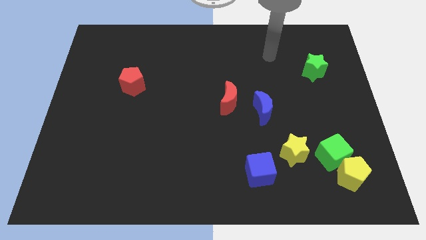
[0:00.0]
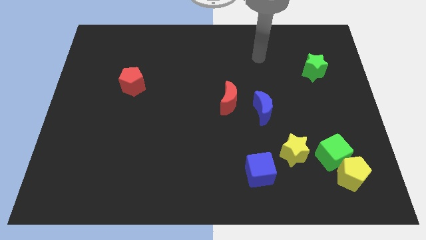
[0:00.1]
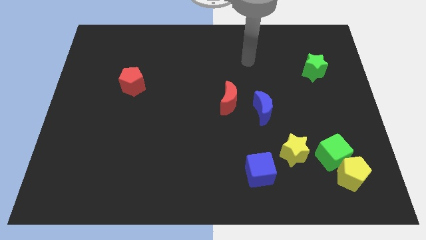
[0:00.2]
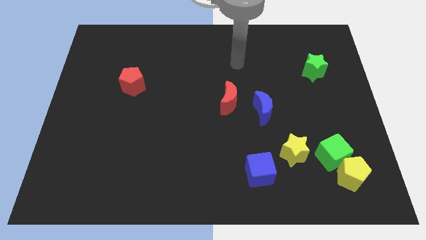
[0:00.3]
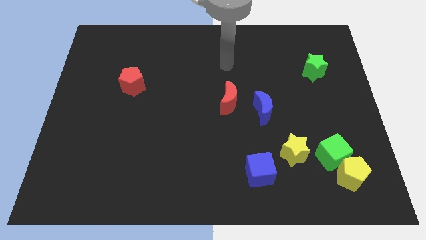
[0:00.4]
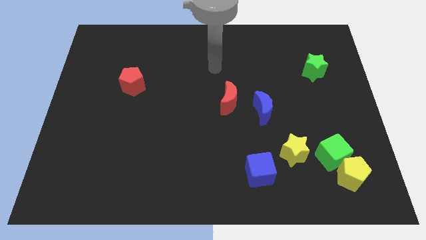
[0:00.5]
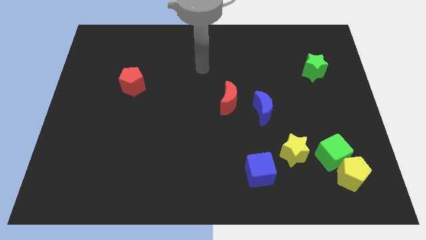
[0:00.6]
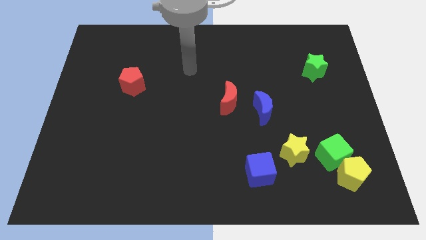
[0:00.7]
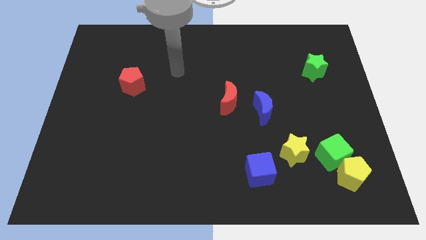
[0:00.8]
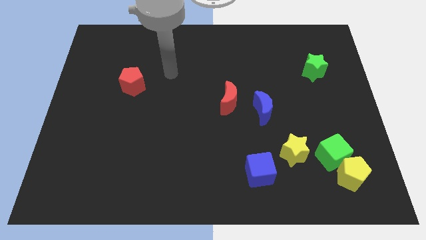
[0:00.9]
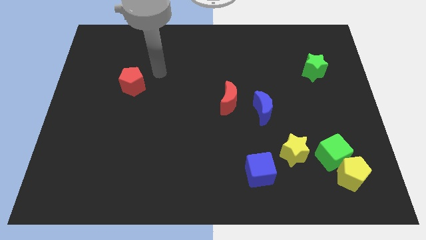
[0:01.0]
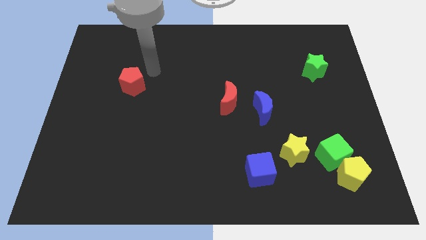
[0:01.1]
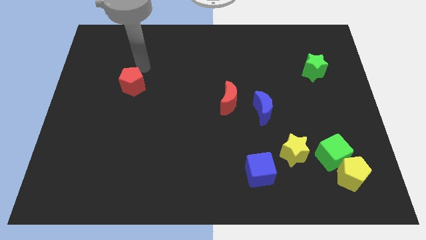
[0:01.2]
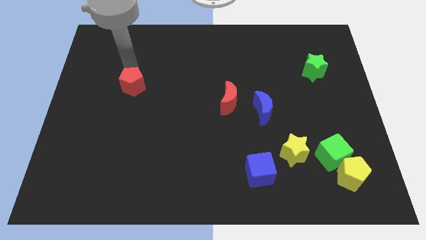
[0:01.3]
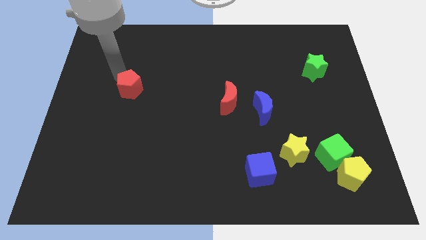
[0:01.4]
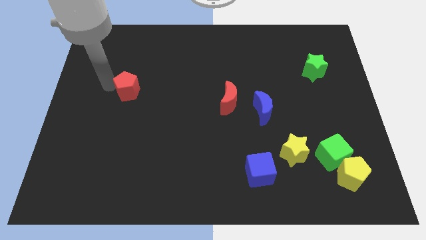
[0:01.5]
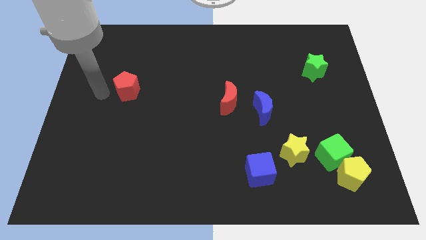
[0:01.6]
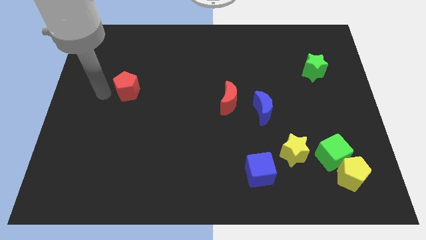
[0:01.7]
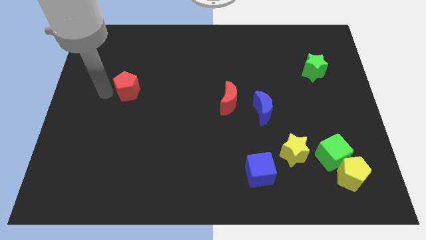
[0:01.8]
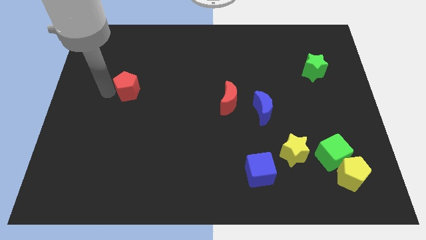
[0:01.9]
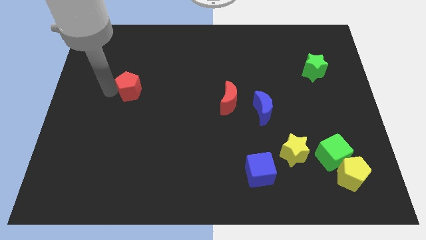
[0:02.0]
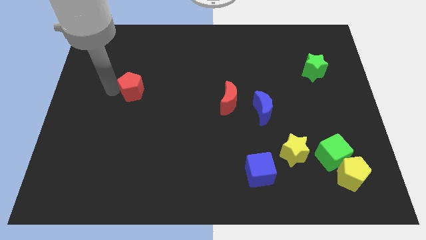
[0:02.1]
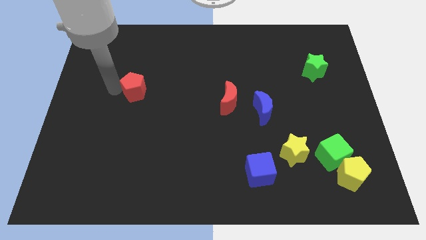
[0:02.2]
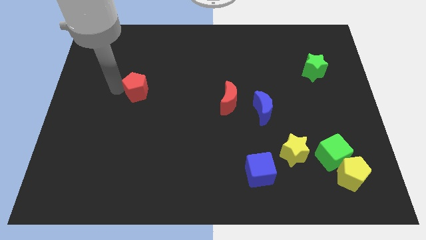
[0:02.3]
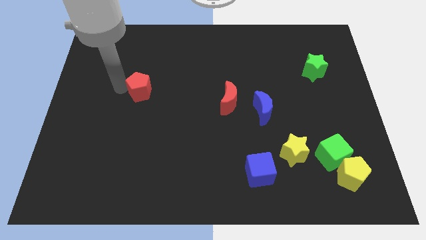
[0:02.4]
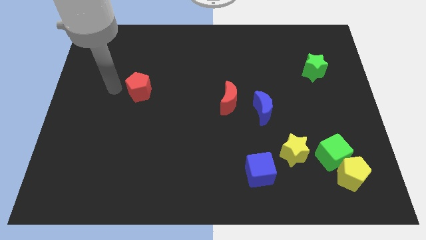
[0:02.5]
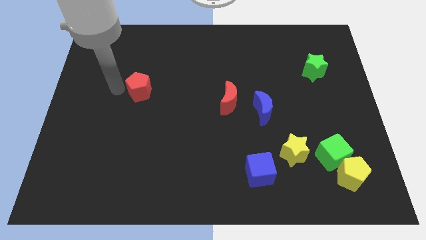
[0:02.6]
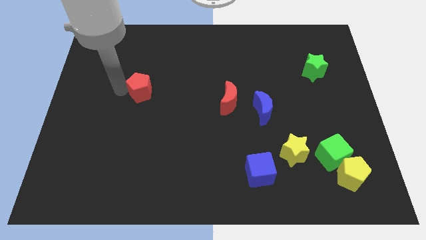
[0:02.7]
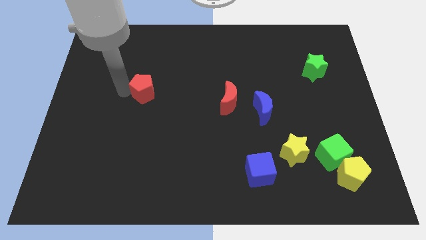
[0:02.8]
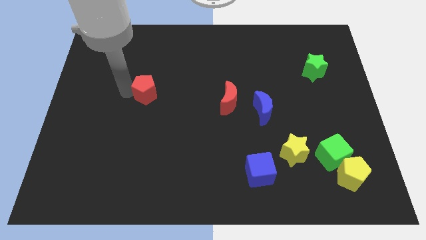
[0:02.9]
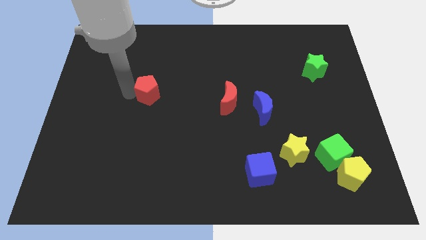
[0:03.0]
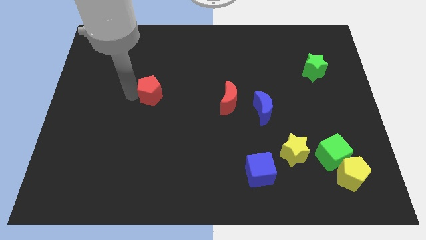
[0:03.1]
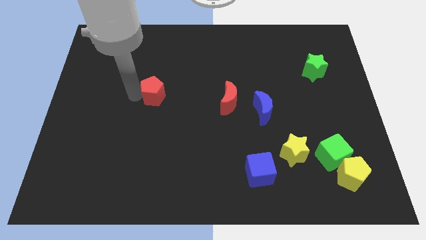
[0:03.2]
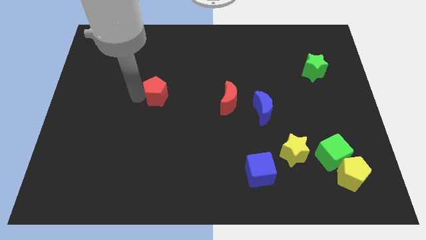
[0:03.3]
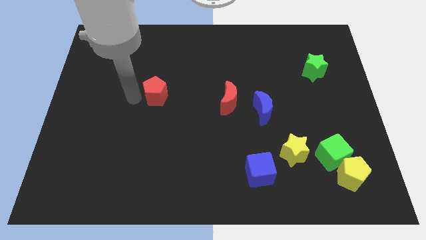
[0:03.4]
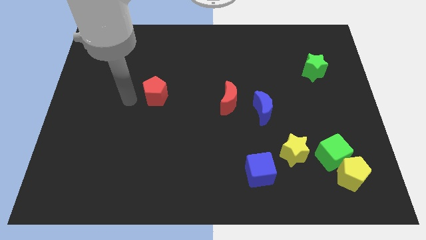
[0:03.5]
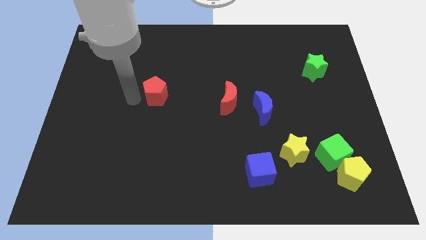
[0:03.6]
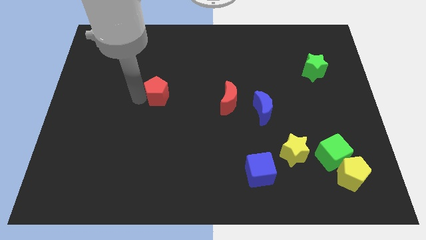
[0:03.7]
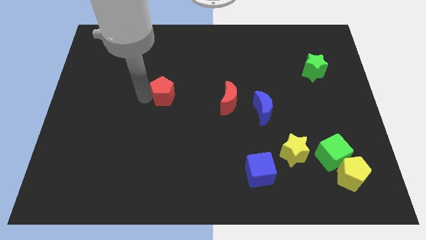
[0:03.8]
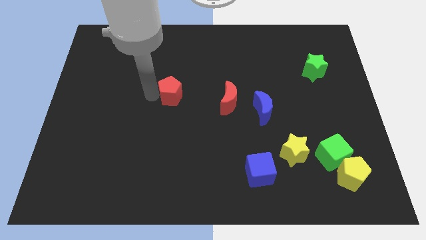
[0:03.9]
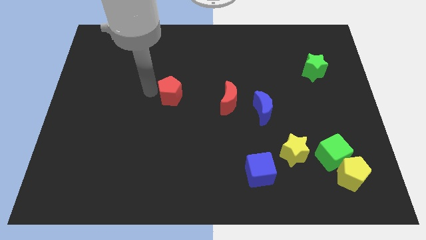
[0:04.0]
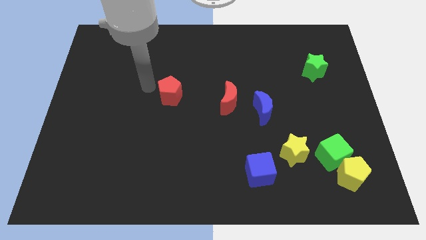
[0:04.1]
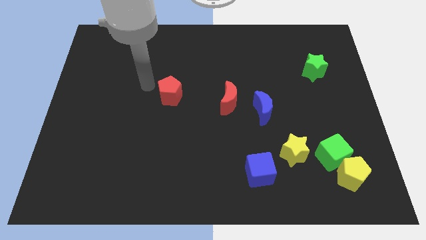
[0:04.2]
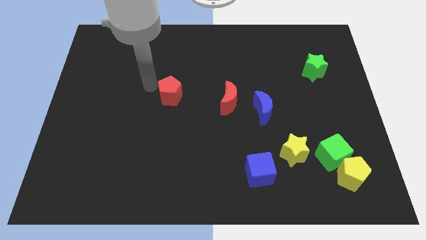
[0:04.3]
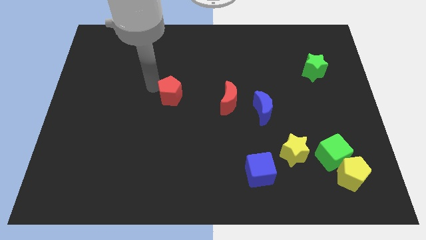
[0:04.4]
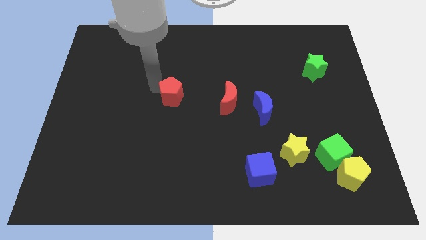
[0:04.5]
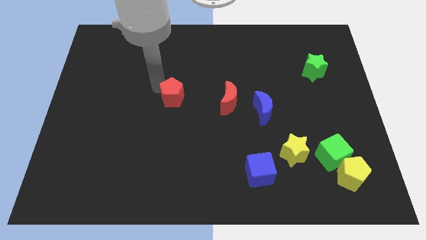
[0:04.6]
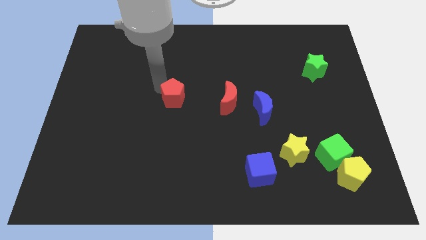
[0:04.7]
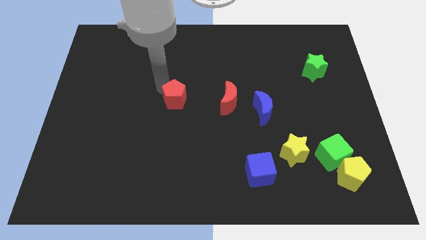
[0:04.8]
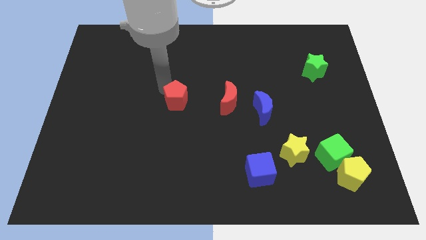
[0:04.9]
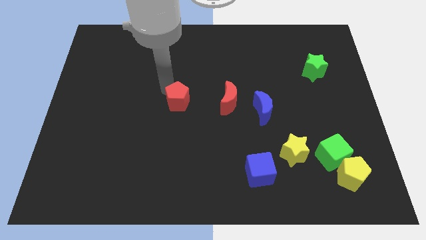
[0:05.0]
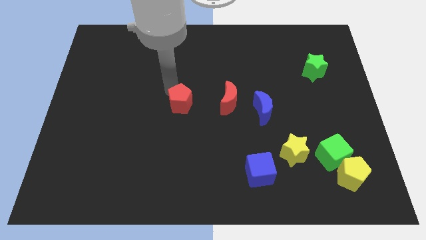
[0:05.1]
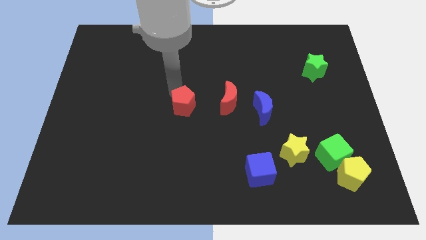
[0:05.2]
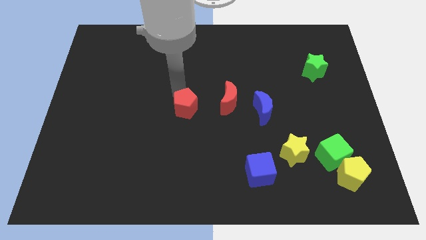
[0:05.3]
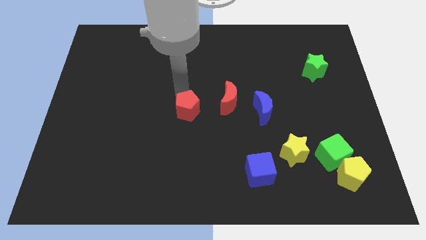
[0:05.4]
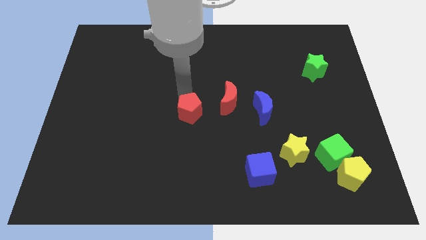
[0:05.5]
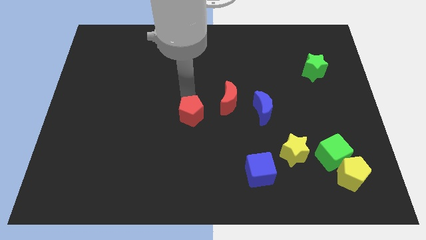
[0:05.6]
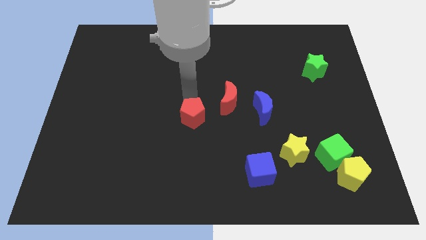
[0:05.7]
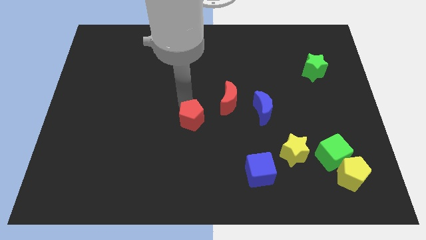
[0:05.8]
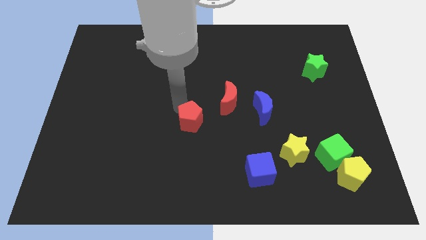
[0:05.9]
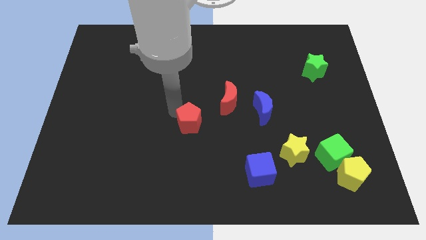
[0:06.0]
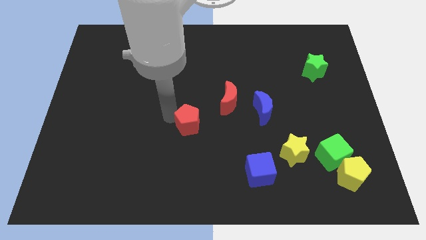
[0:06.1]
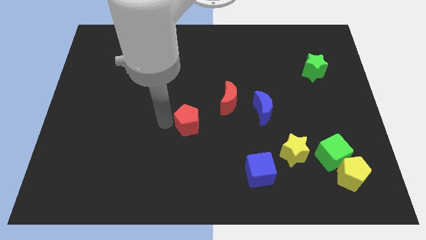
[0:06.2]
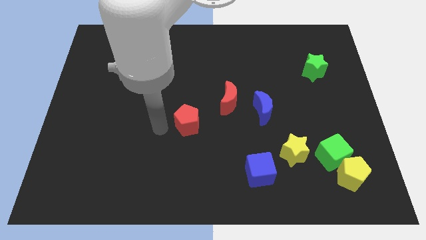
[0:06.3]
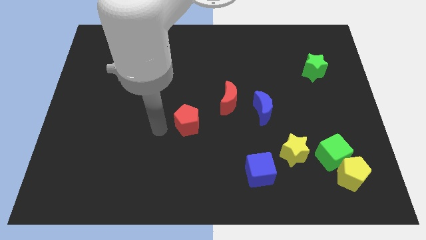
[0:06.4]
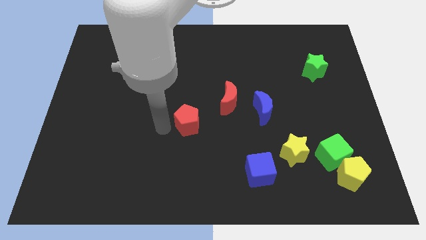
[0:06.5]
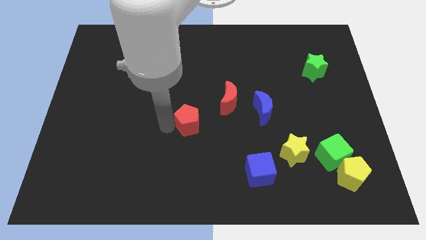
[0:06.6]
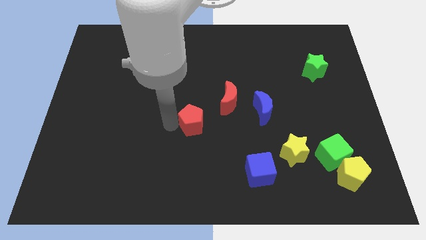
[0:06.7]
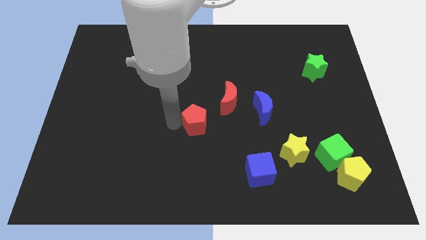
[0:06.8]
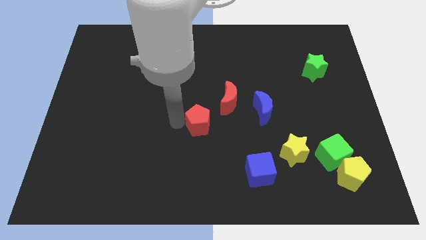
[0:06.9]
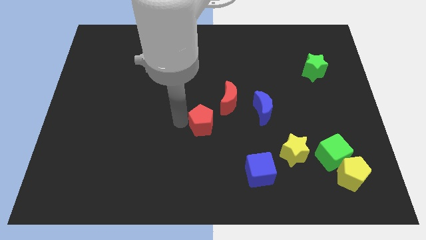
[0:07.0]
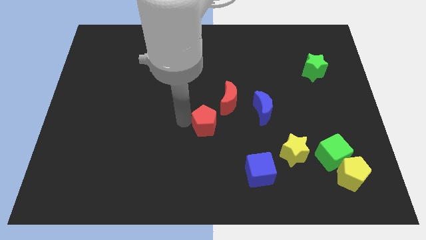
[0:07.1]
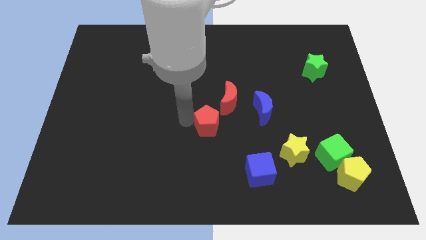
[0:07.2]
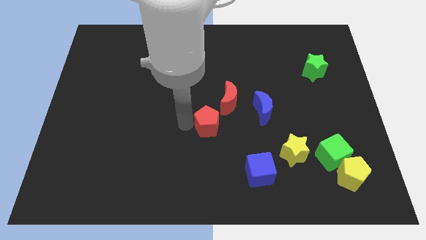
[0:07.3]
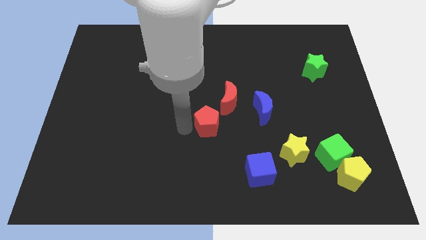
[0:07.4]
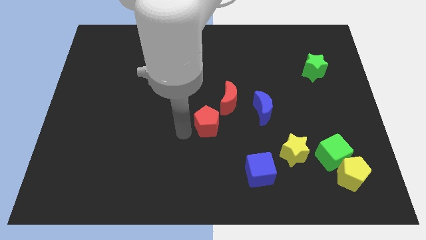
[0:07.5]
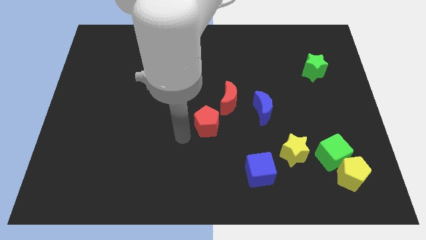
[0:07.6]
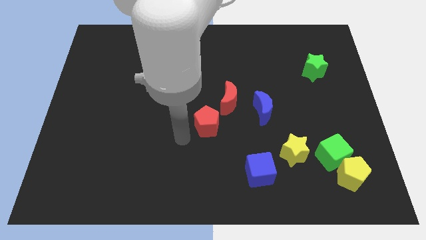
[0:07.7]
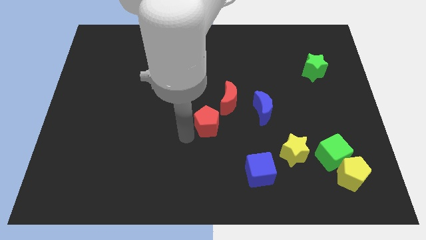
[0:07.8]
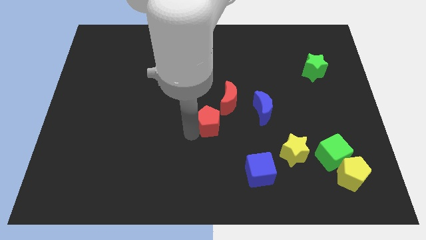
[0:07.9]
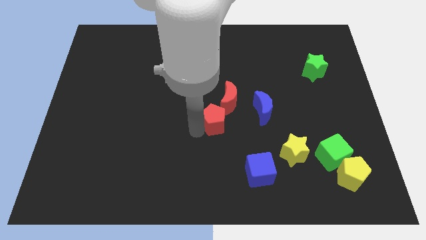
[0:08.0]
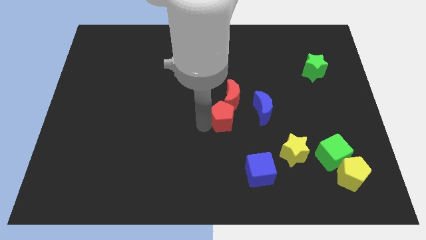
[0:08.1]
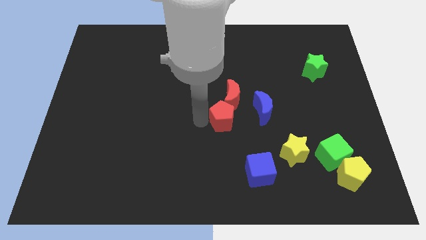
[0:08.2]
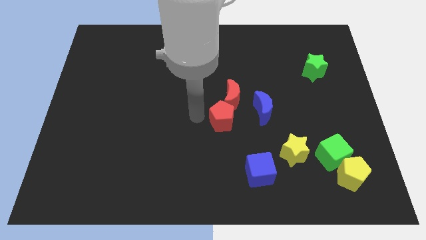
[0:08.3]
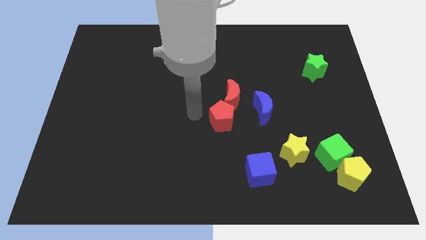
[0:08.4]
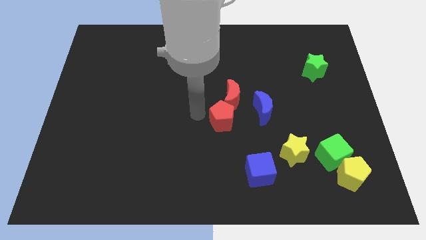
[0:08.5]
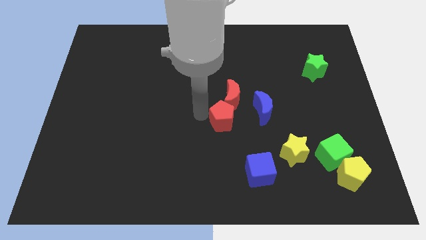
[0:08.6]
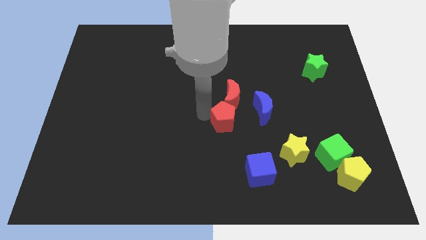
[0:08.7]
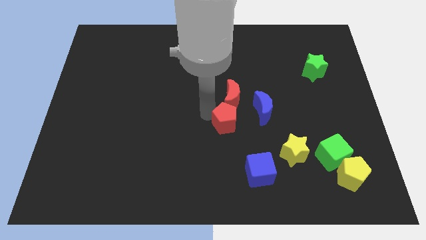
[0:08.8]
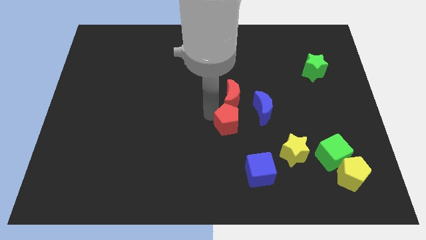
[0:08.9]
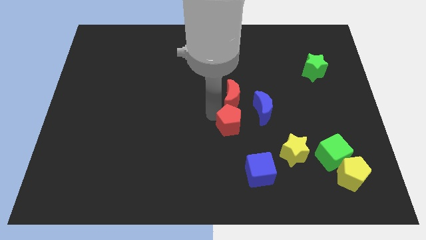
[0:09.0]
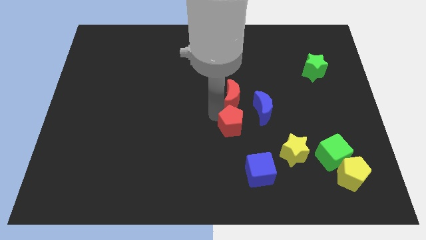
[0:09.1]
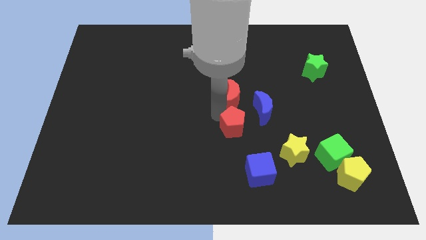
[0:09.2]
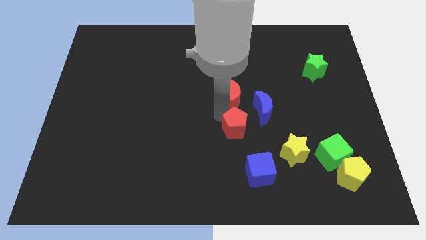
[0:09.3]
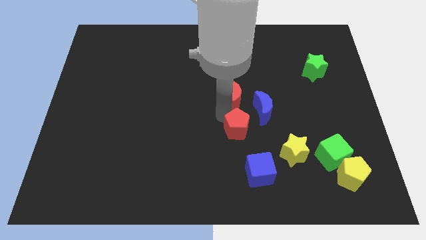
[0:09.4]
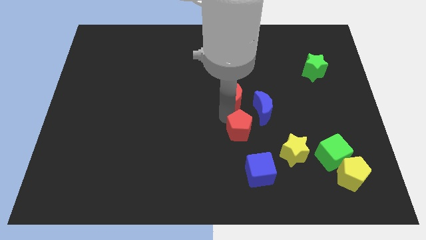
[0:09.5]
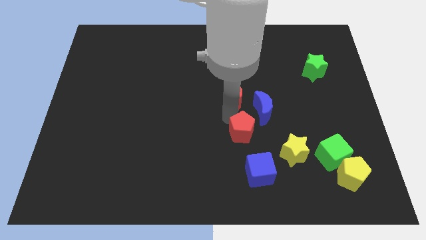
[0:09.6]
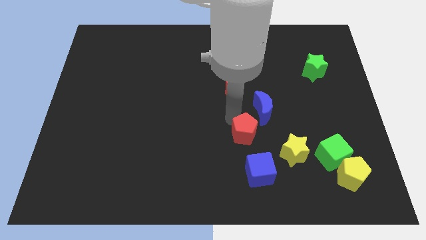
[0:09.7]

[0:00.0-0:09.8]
put the red pentagon to the top left side of the yellow star
